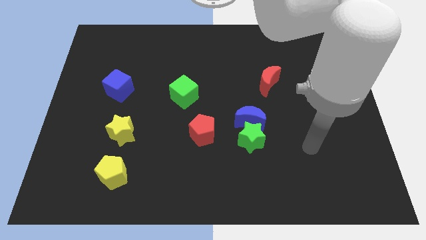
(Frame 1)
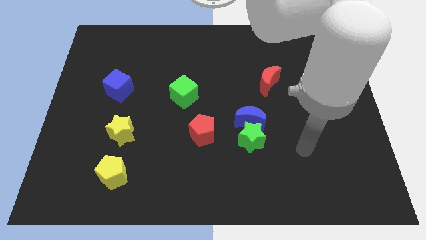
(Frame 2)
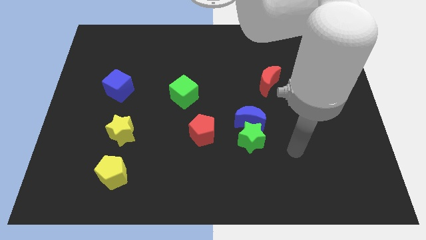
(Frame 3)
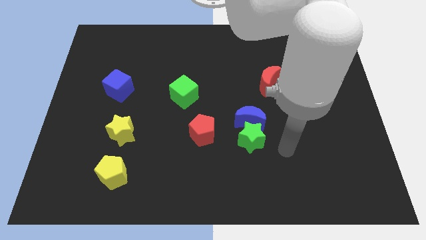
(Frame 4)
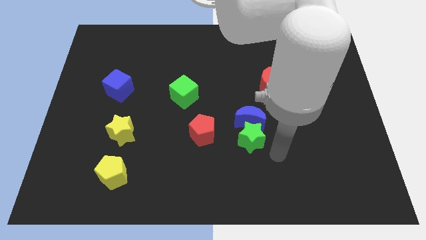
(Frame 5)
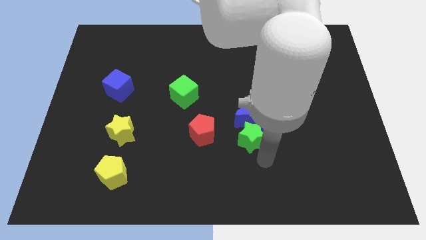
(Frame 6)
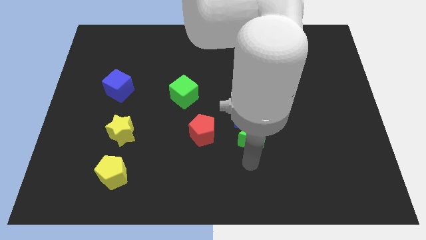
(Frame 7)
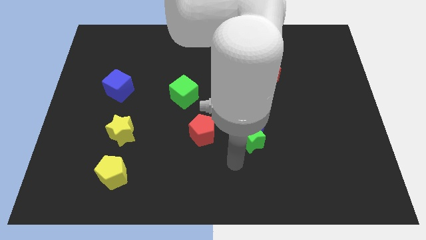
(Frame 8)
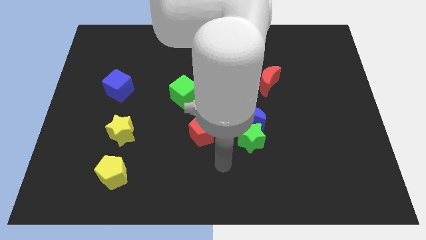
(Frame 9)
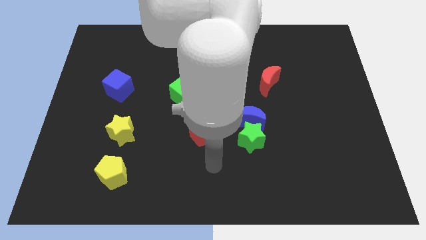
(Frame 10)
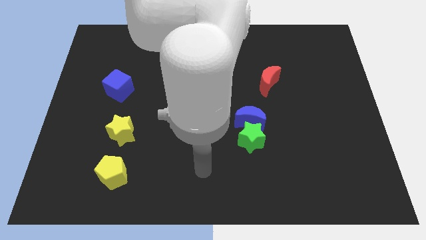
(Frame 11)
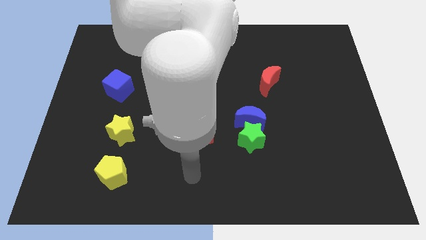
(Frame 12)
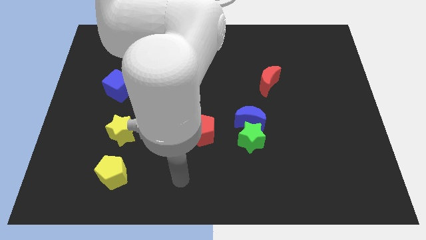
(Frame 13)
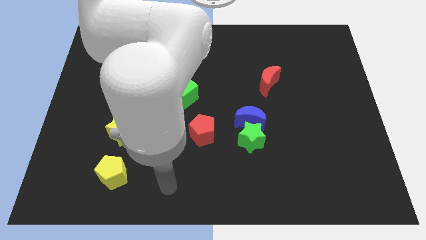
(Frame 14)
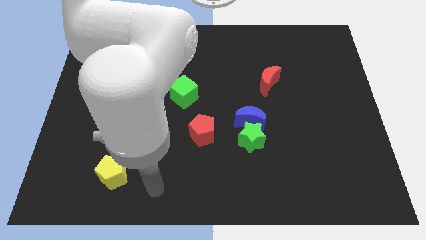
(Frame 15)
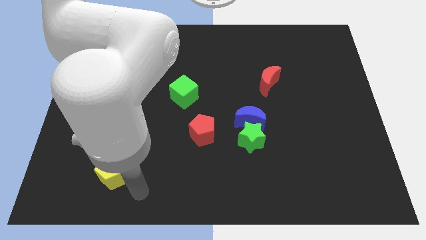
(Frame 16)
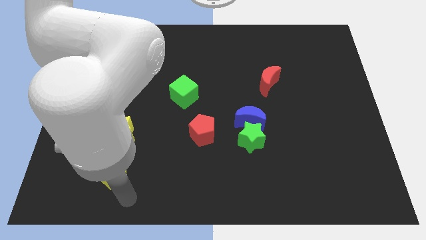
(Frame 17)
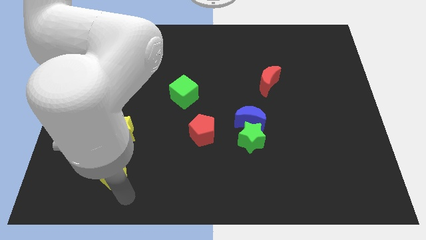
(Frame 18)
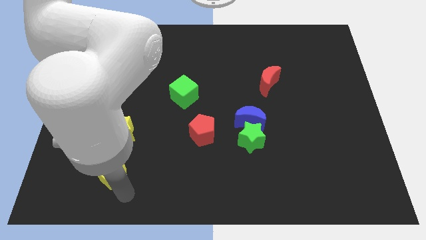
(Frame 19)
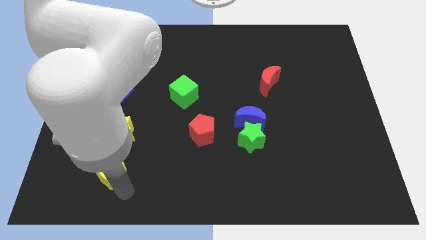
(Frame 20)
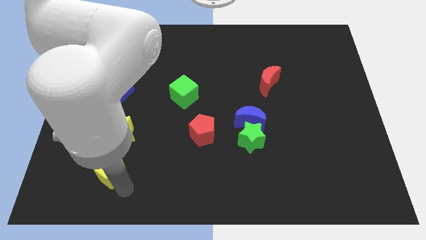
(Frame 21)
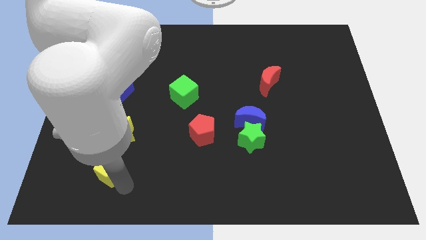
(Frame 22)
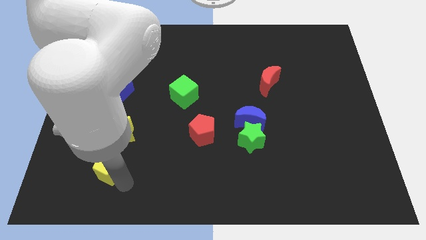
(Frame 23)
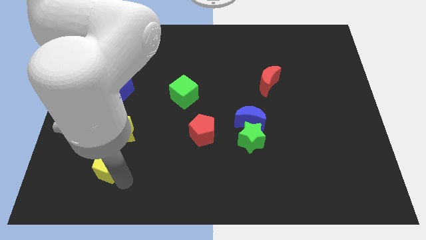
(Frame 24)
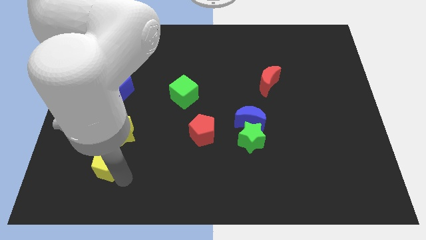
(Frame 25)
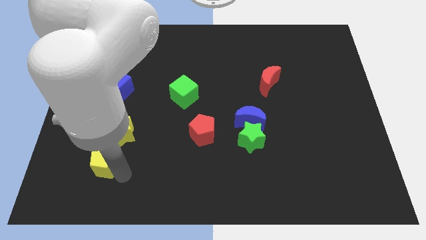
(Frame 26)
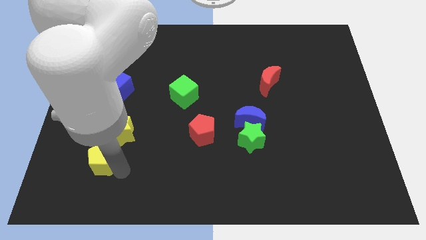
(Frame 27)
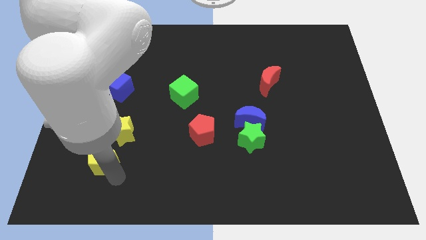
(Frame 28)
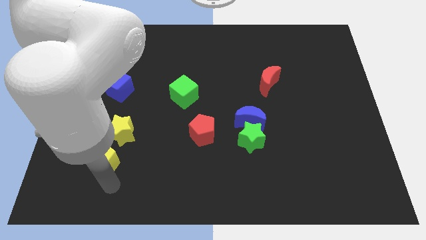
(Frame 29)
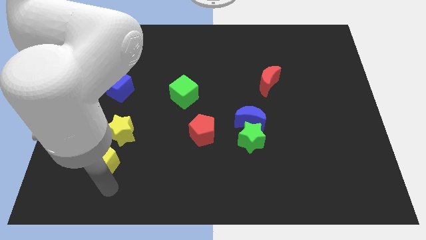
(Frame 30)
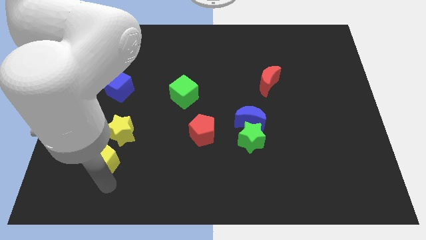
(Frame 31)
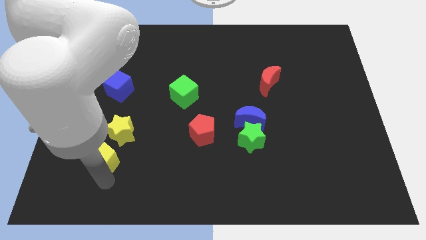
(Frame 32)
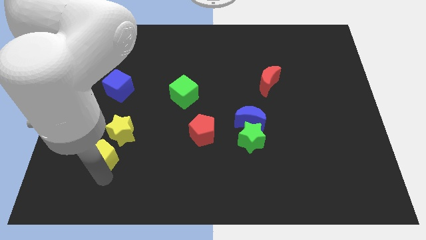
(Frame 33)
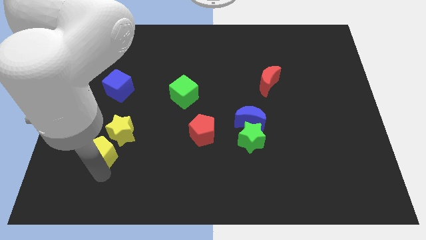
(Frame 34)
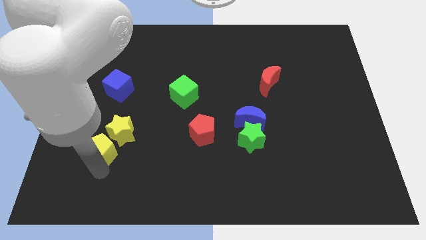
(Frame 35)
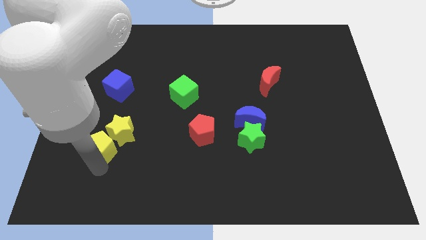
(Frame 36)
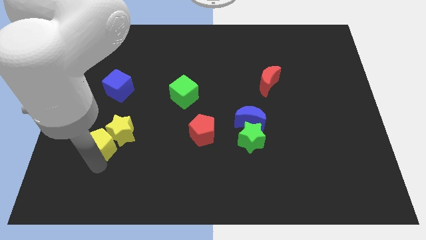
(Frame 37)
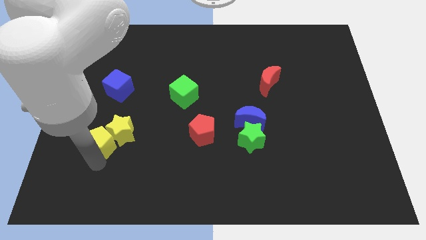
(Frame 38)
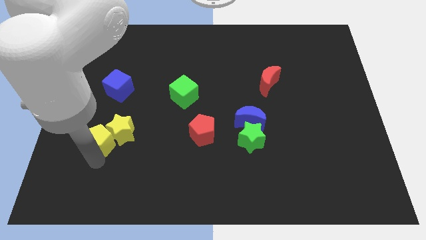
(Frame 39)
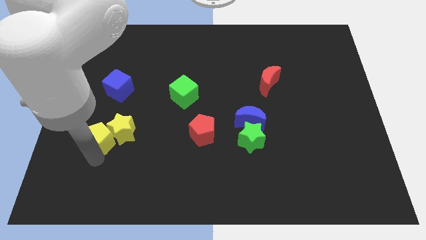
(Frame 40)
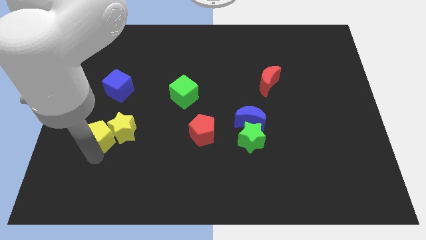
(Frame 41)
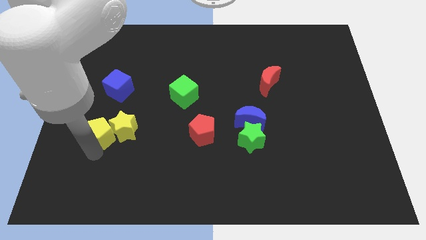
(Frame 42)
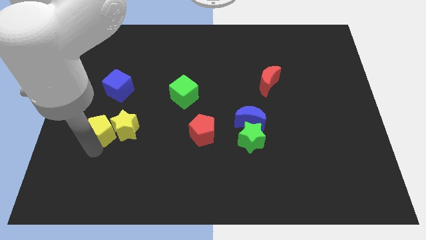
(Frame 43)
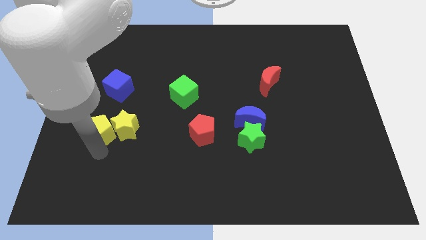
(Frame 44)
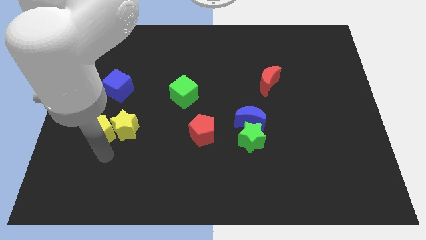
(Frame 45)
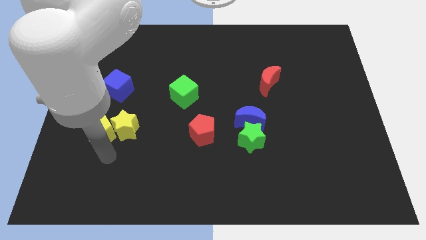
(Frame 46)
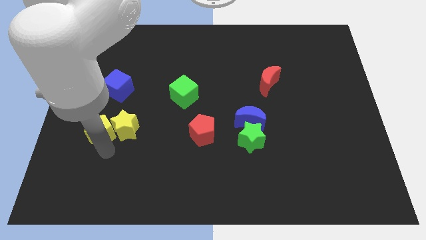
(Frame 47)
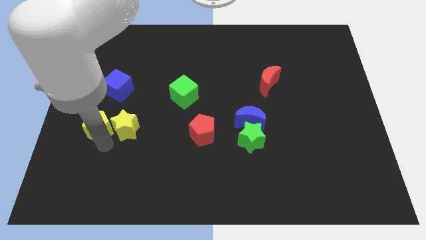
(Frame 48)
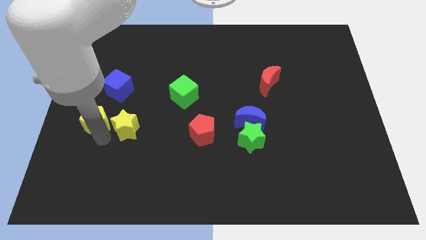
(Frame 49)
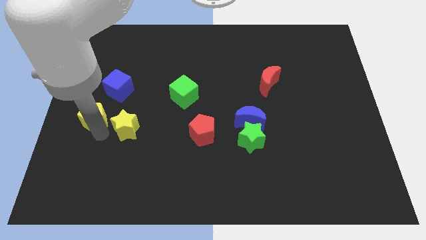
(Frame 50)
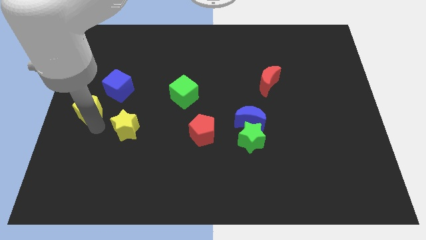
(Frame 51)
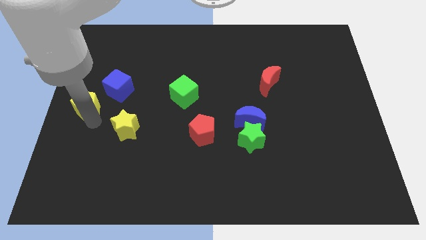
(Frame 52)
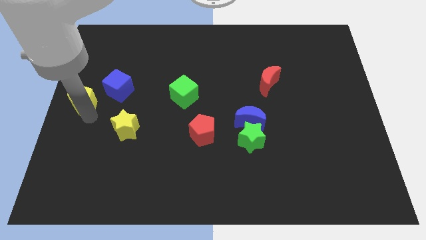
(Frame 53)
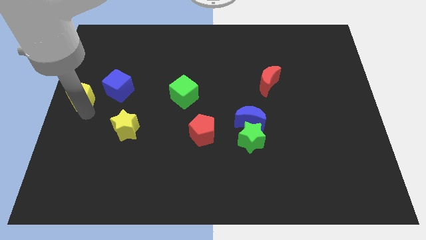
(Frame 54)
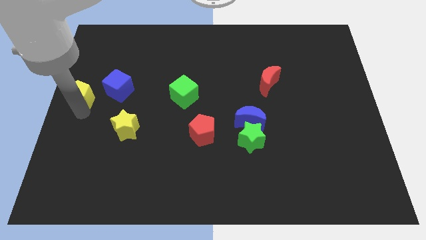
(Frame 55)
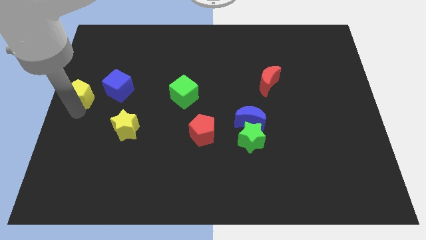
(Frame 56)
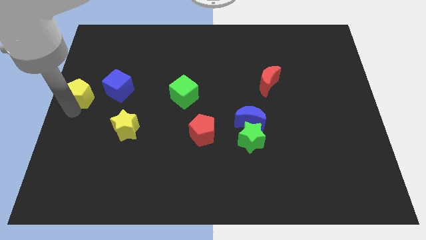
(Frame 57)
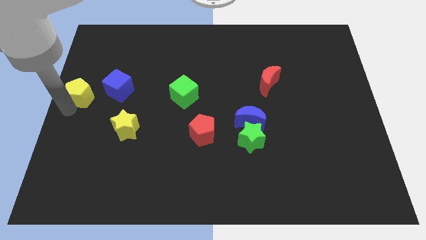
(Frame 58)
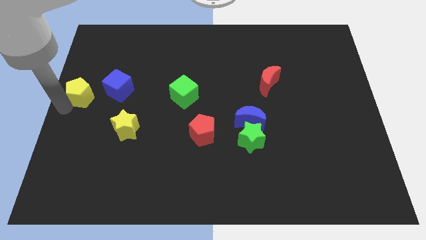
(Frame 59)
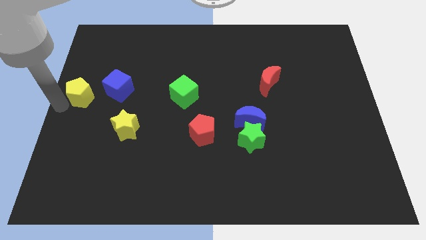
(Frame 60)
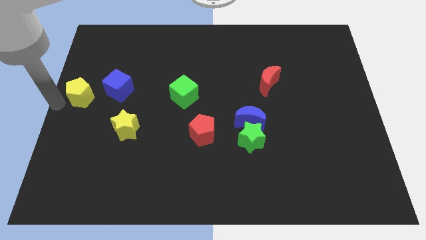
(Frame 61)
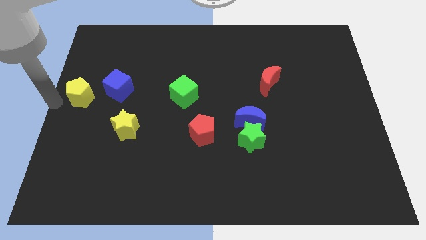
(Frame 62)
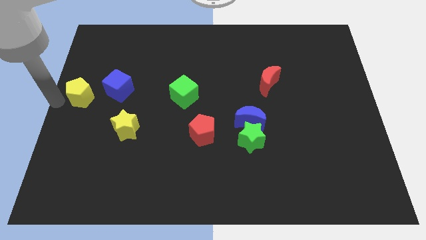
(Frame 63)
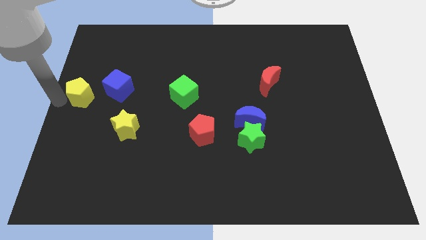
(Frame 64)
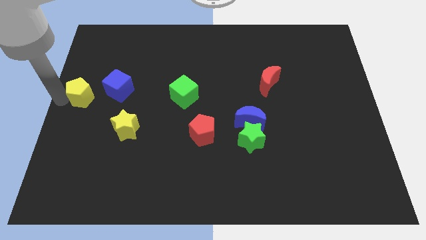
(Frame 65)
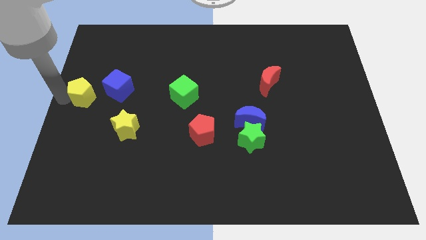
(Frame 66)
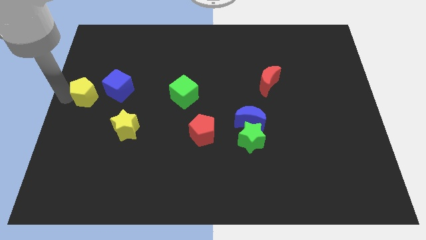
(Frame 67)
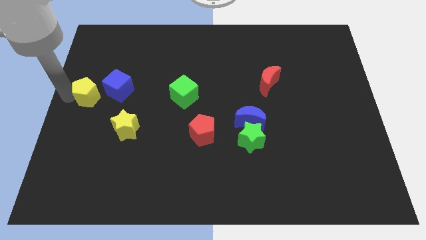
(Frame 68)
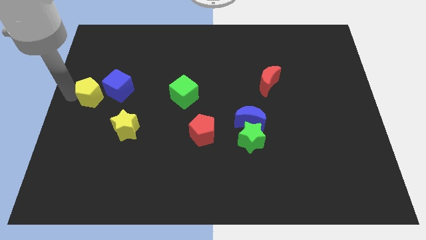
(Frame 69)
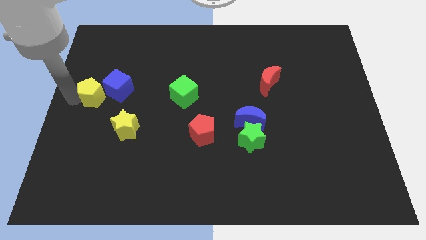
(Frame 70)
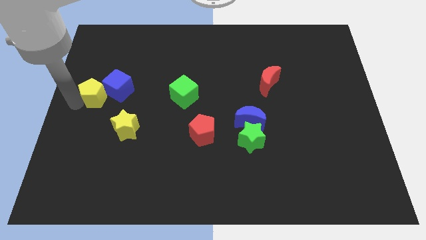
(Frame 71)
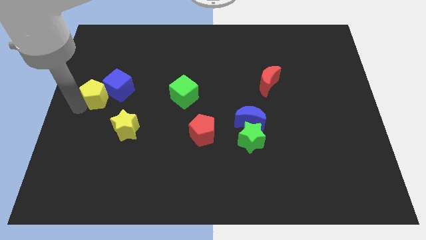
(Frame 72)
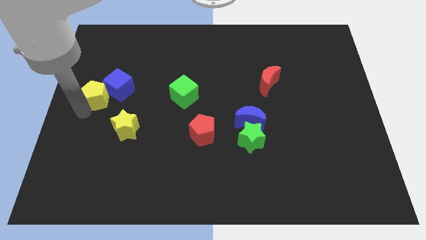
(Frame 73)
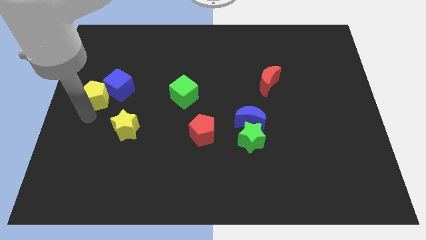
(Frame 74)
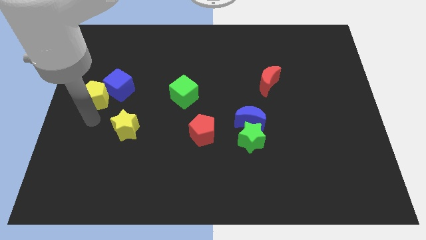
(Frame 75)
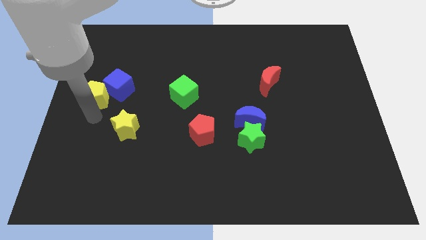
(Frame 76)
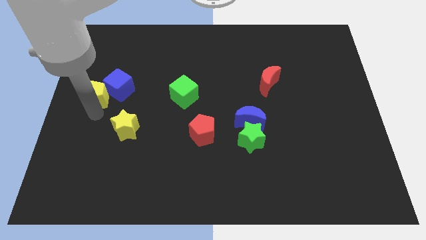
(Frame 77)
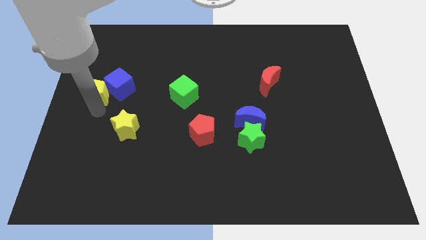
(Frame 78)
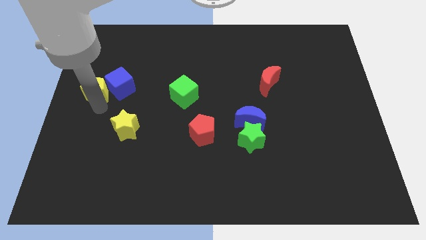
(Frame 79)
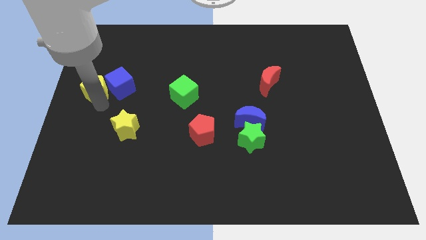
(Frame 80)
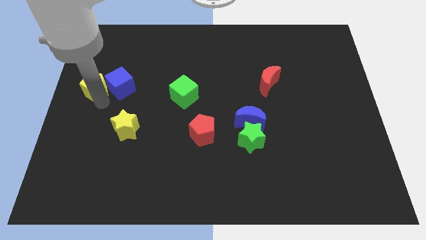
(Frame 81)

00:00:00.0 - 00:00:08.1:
move the yellow pentagon to the top left side of the blue cube
